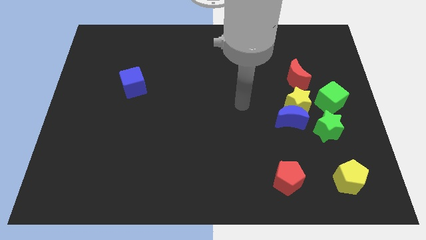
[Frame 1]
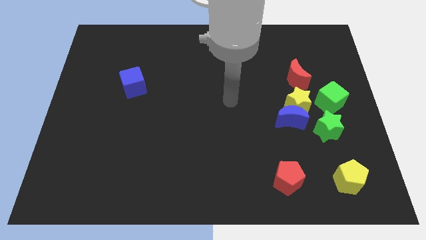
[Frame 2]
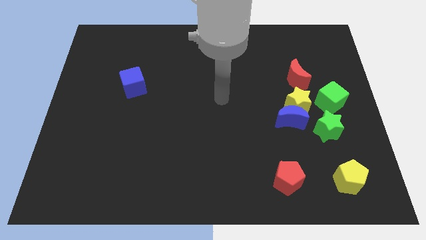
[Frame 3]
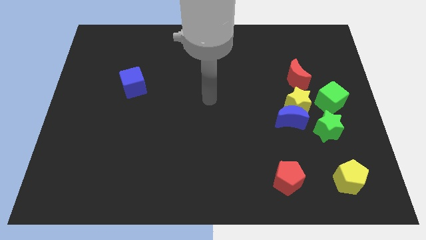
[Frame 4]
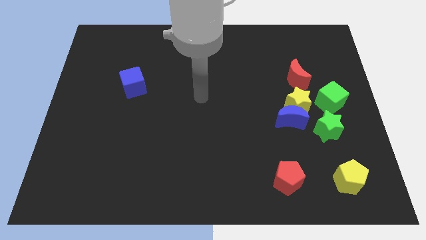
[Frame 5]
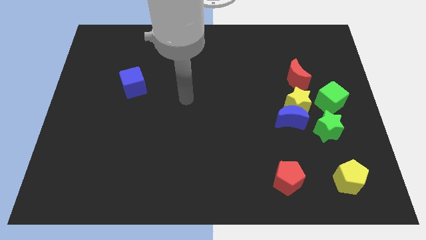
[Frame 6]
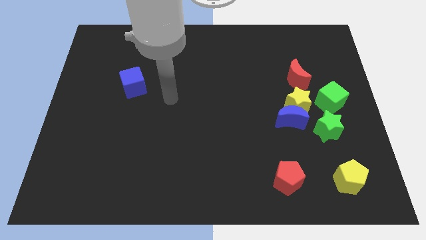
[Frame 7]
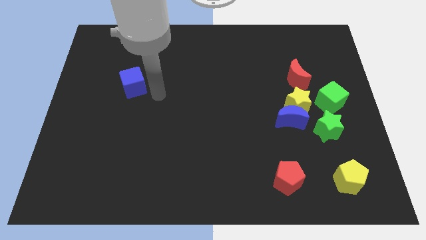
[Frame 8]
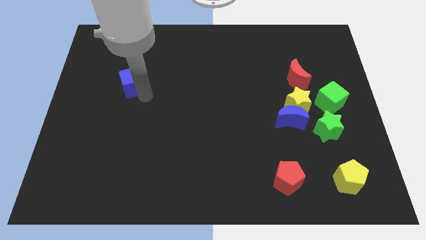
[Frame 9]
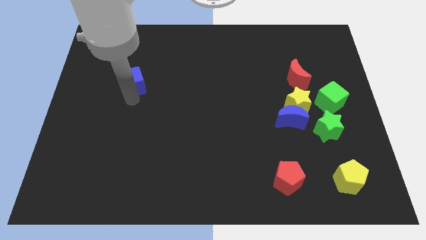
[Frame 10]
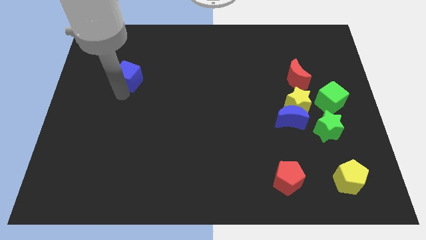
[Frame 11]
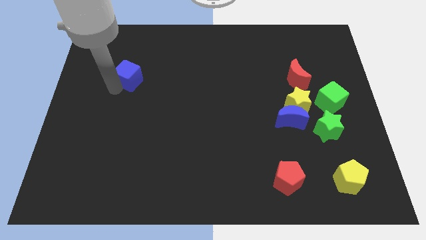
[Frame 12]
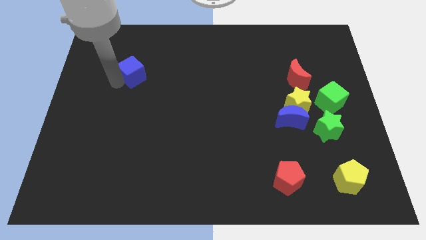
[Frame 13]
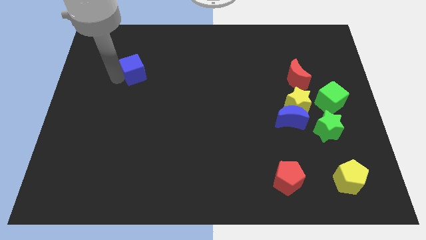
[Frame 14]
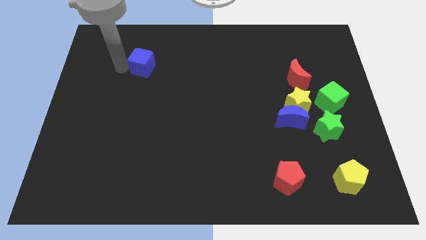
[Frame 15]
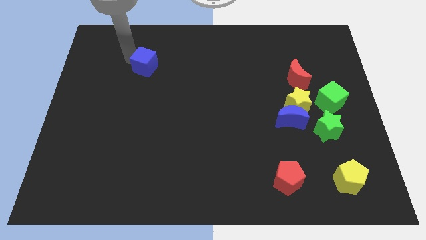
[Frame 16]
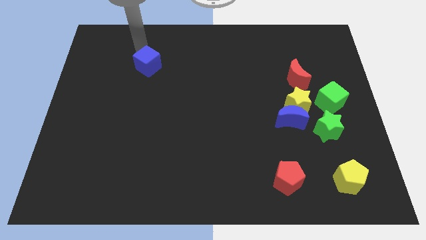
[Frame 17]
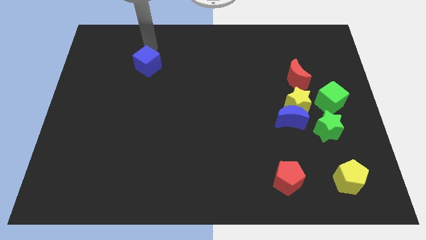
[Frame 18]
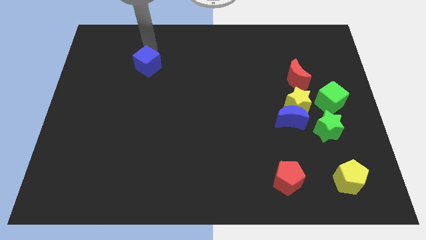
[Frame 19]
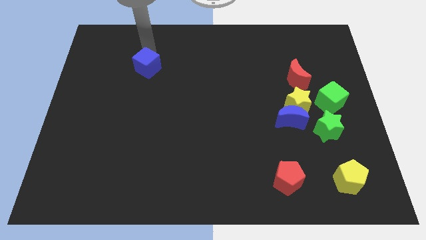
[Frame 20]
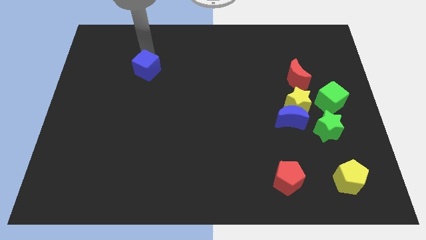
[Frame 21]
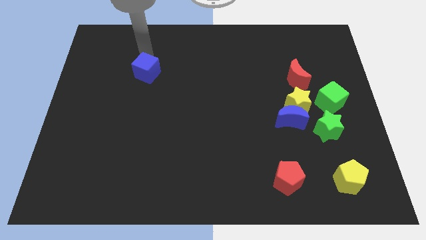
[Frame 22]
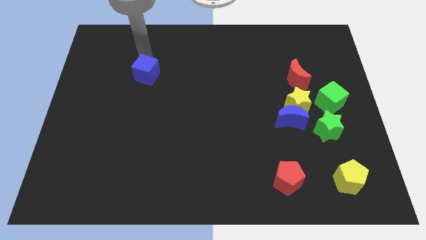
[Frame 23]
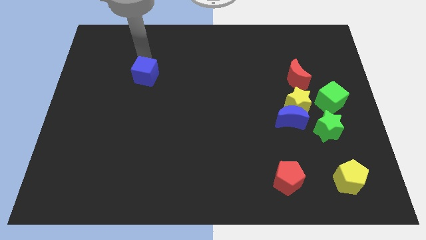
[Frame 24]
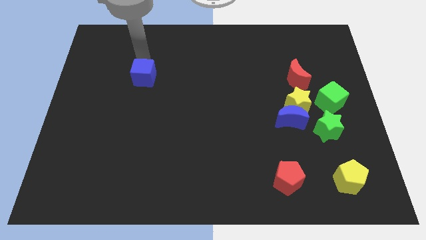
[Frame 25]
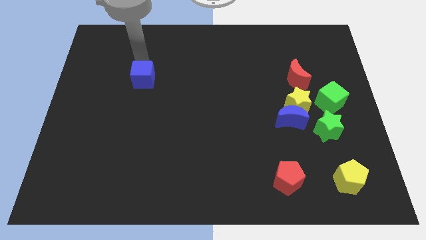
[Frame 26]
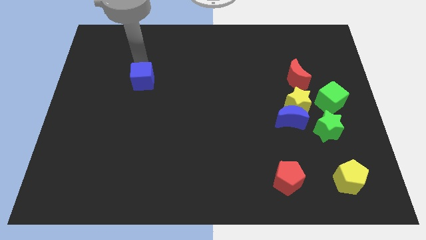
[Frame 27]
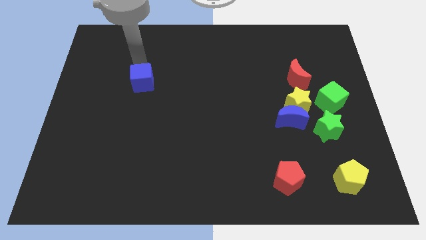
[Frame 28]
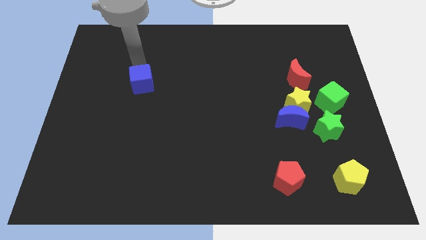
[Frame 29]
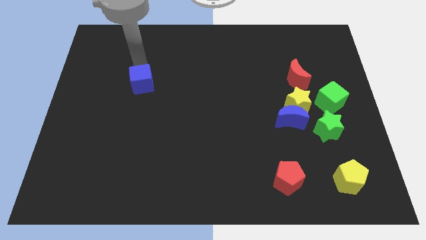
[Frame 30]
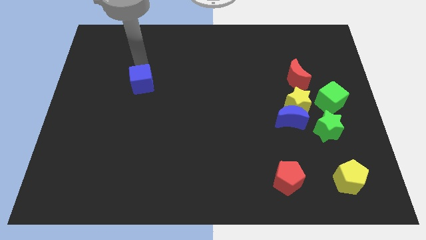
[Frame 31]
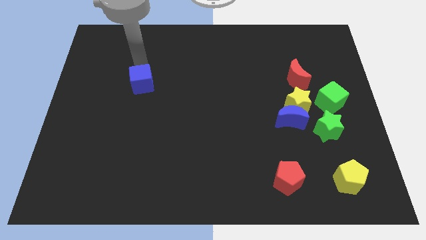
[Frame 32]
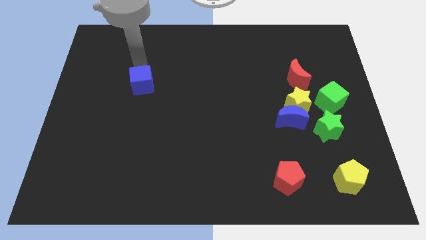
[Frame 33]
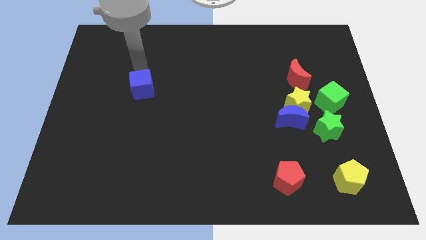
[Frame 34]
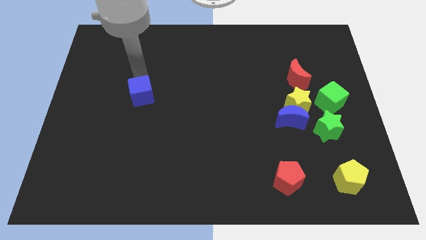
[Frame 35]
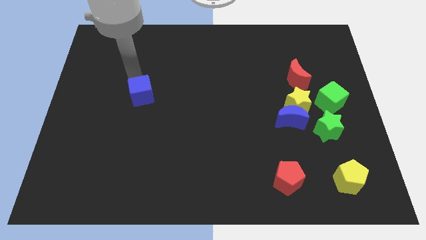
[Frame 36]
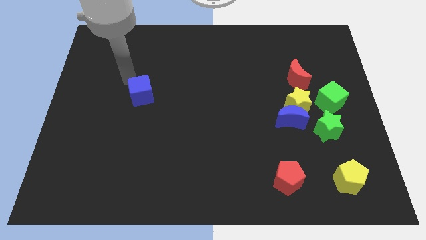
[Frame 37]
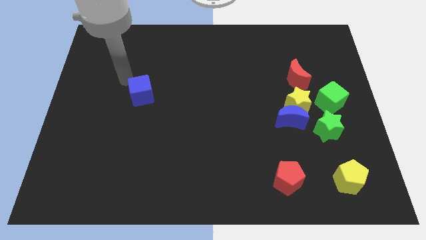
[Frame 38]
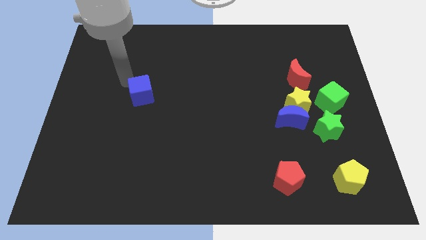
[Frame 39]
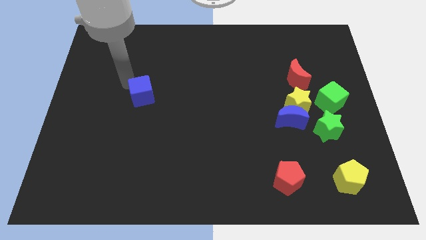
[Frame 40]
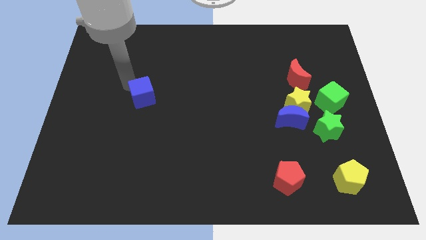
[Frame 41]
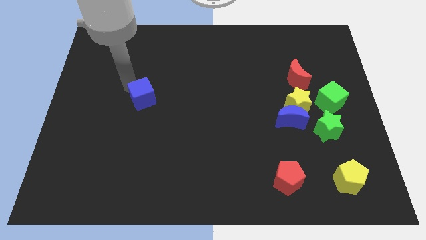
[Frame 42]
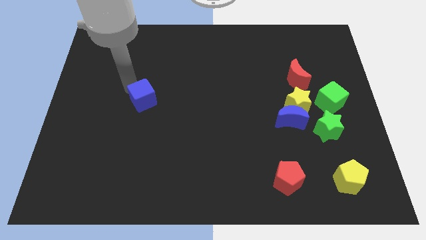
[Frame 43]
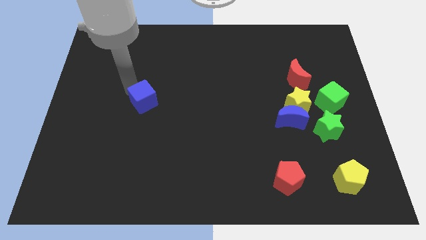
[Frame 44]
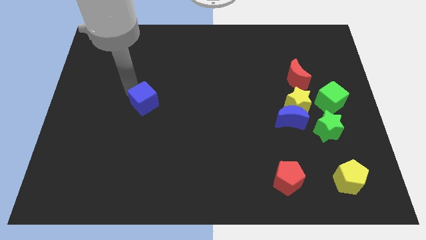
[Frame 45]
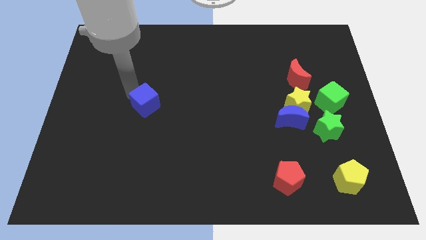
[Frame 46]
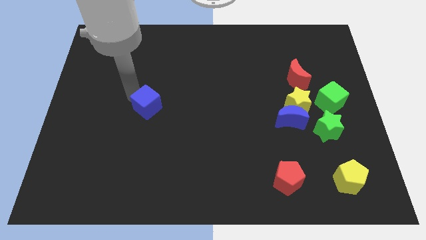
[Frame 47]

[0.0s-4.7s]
slightly slide the blue cube down and right diagonally

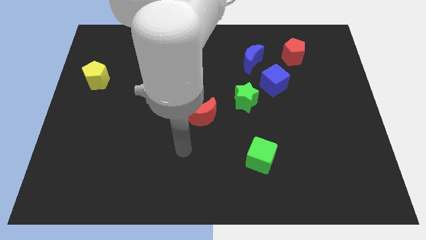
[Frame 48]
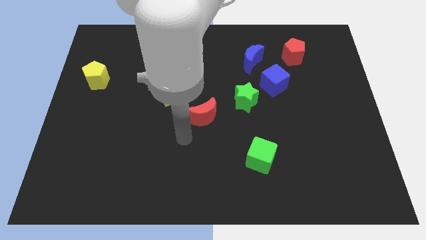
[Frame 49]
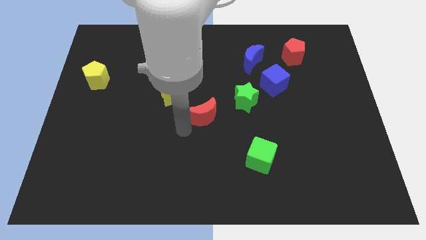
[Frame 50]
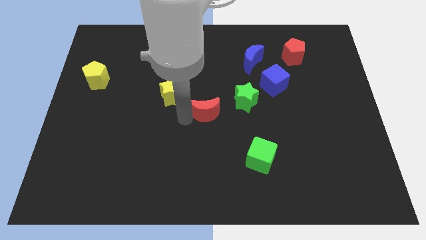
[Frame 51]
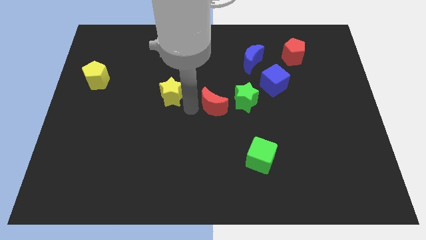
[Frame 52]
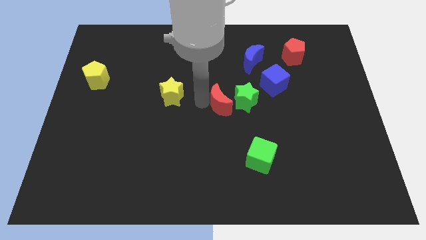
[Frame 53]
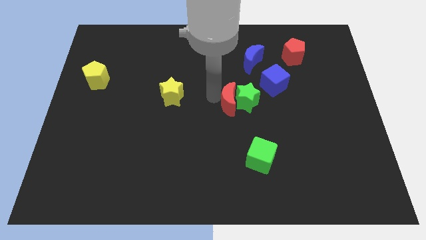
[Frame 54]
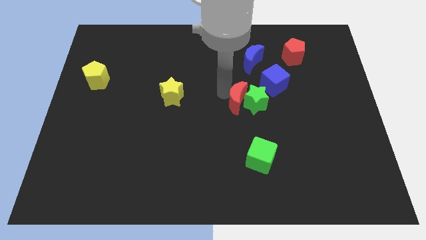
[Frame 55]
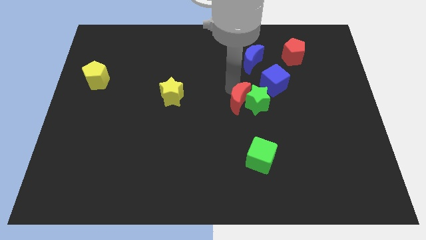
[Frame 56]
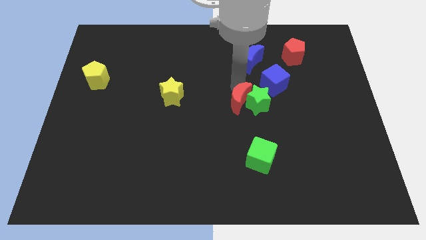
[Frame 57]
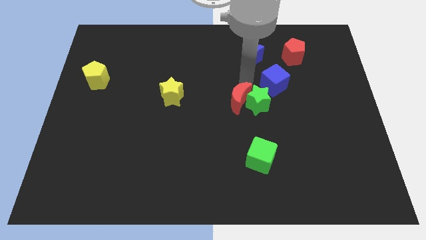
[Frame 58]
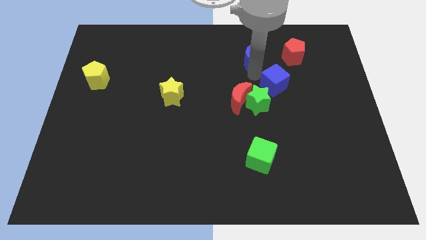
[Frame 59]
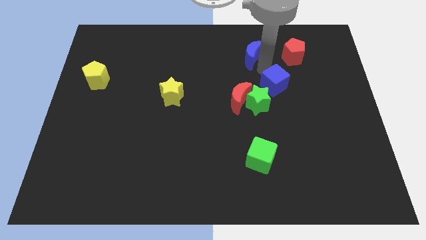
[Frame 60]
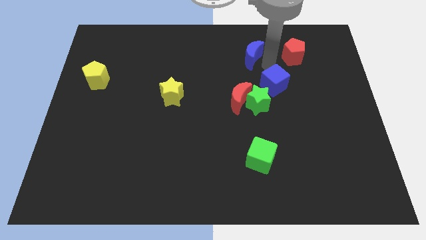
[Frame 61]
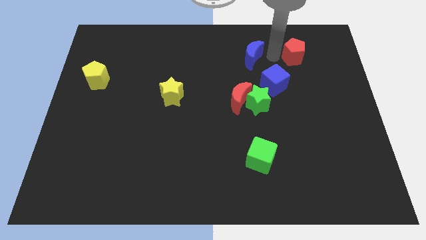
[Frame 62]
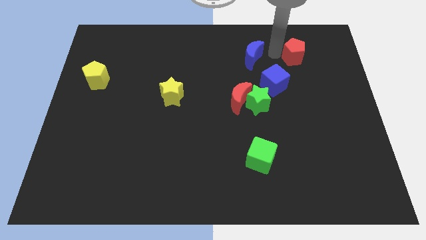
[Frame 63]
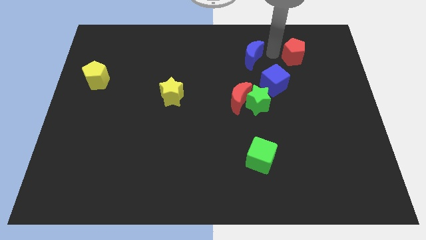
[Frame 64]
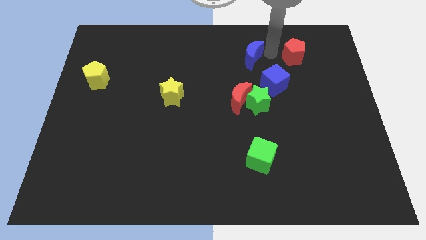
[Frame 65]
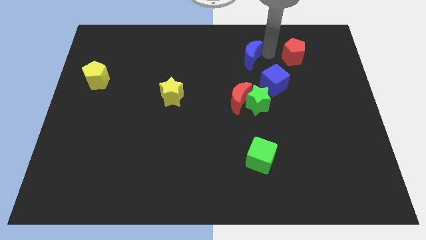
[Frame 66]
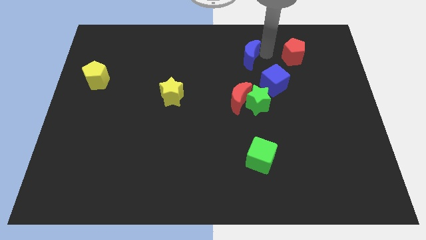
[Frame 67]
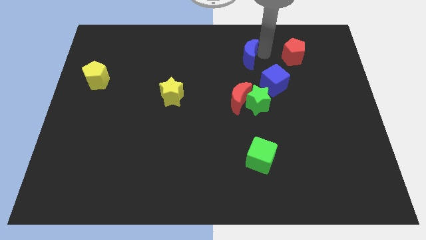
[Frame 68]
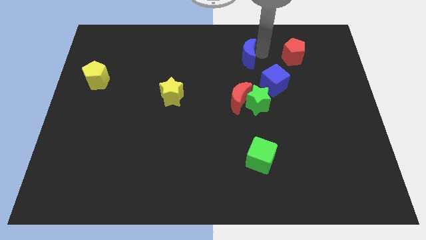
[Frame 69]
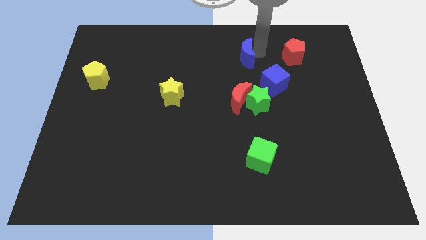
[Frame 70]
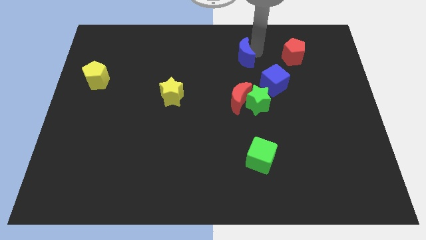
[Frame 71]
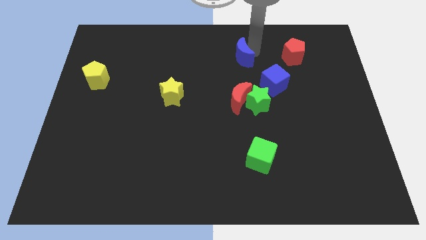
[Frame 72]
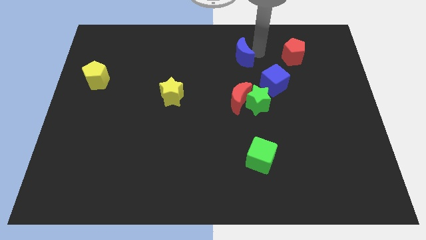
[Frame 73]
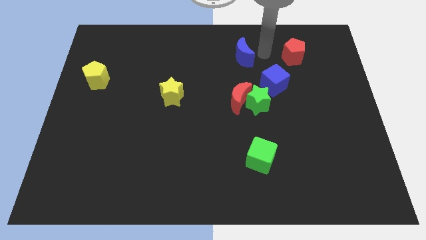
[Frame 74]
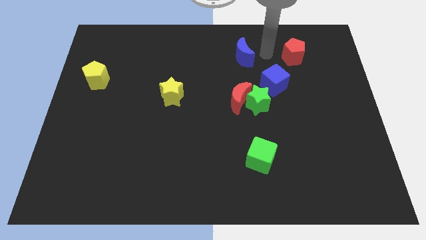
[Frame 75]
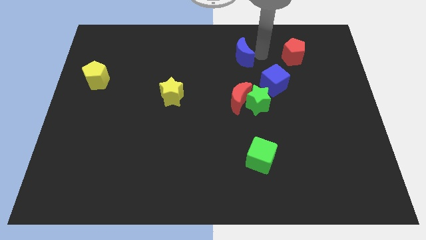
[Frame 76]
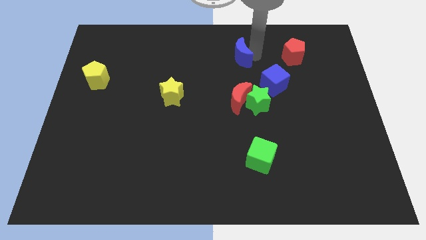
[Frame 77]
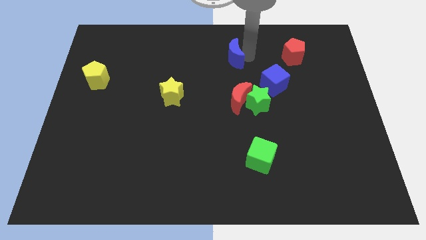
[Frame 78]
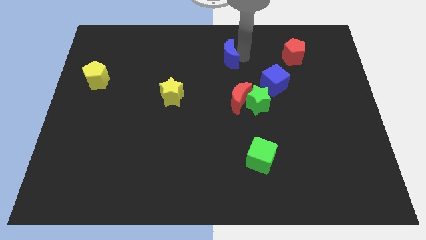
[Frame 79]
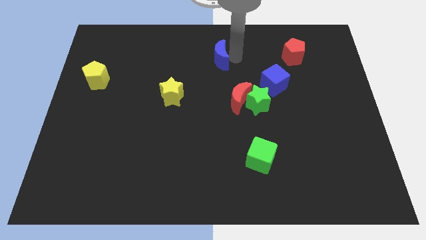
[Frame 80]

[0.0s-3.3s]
push the blue moon to the left a bit
